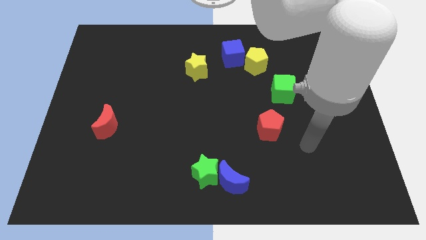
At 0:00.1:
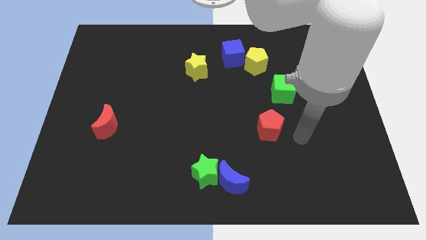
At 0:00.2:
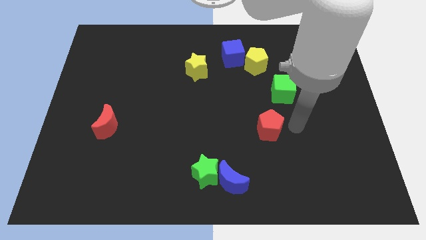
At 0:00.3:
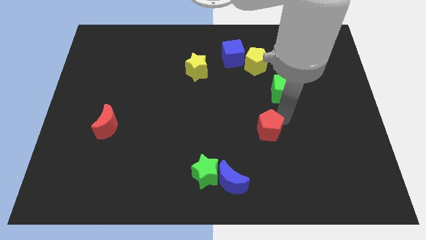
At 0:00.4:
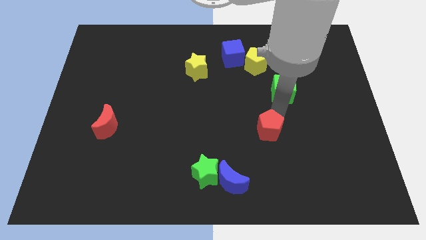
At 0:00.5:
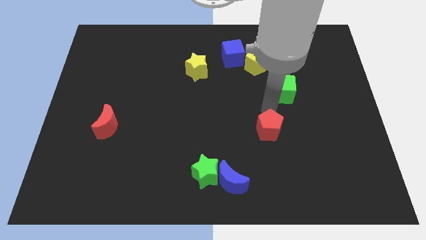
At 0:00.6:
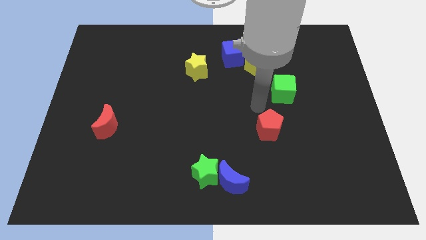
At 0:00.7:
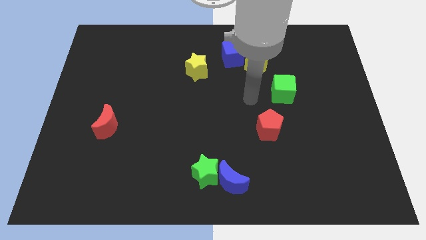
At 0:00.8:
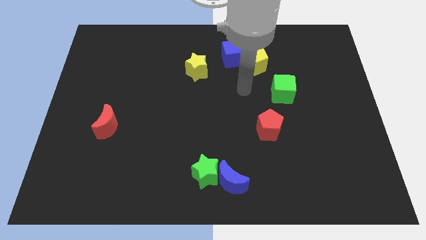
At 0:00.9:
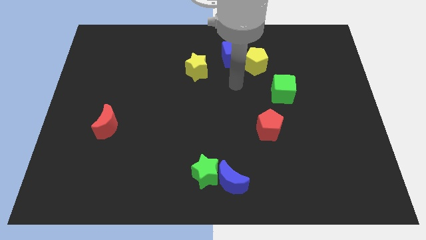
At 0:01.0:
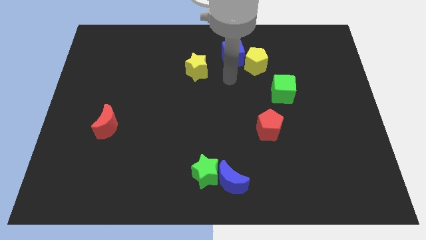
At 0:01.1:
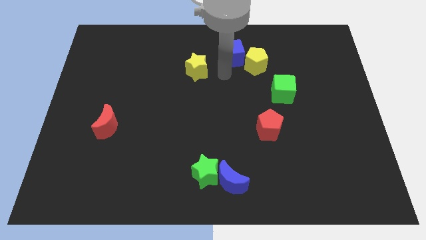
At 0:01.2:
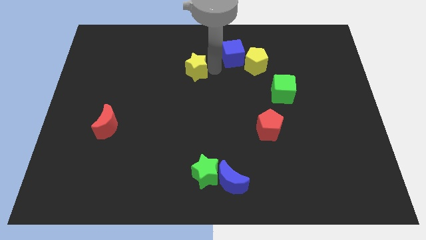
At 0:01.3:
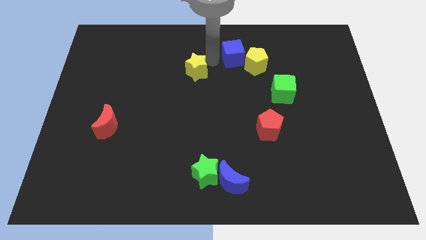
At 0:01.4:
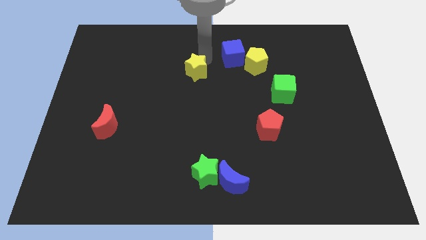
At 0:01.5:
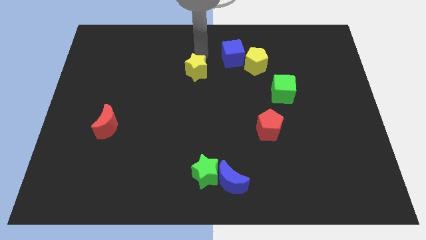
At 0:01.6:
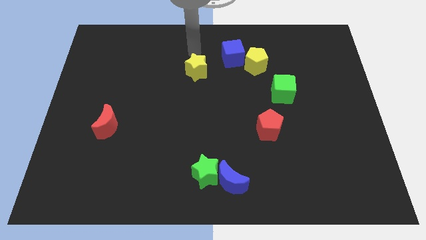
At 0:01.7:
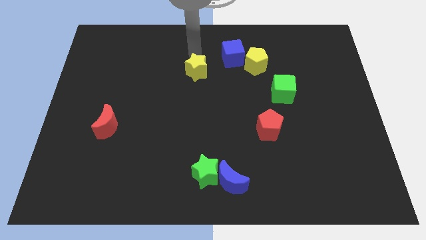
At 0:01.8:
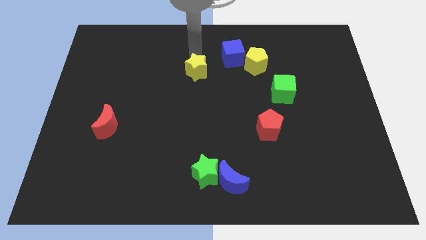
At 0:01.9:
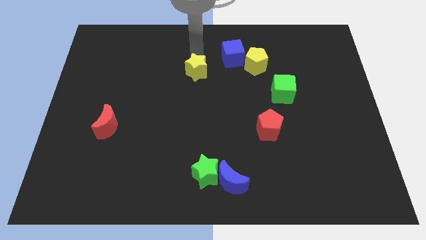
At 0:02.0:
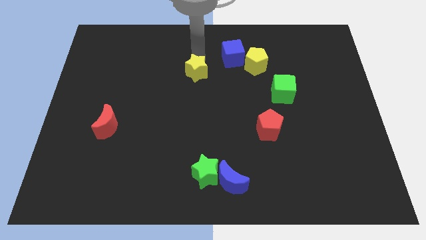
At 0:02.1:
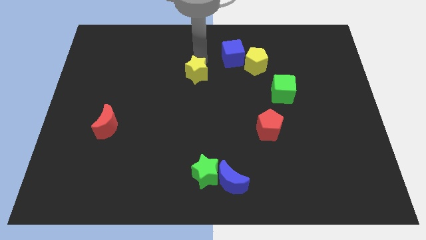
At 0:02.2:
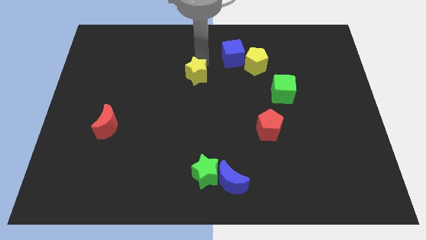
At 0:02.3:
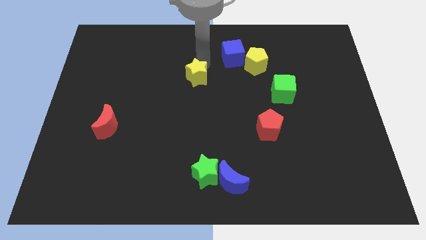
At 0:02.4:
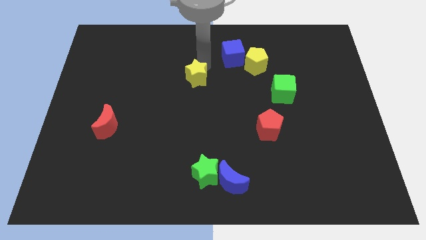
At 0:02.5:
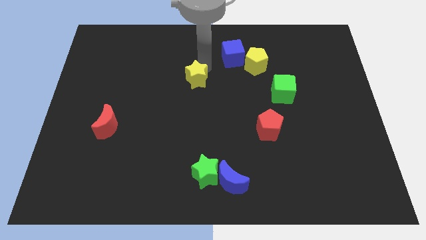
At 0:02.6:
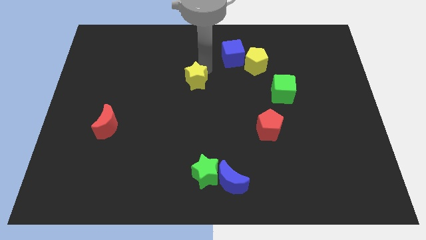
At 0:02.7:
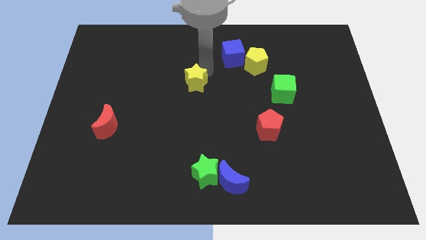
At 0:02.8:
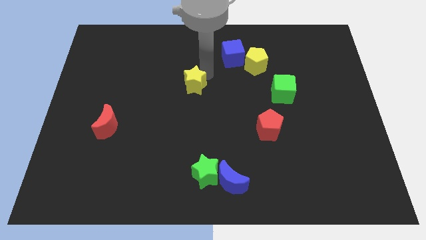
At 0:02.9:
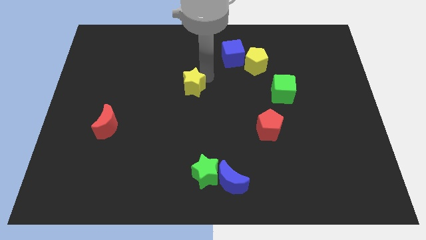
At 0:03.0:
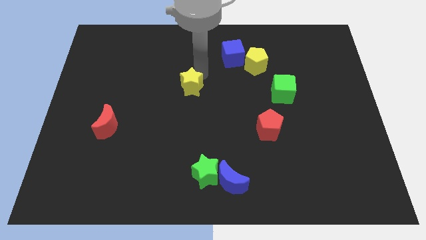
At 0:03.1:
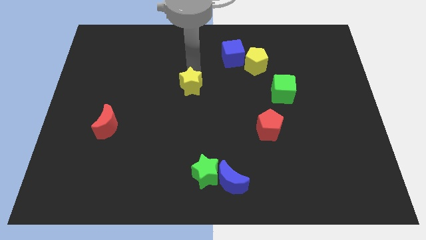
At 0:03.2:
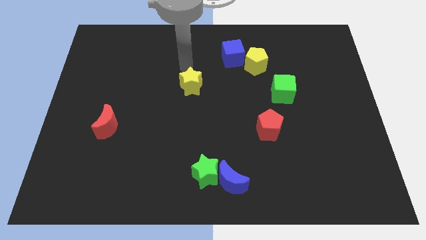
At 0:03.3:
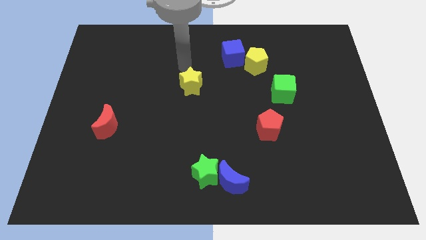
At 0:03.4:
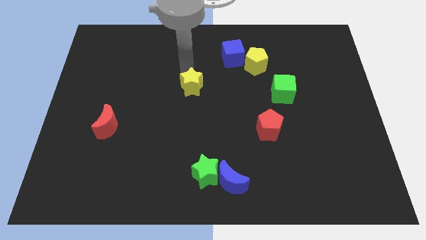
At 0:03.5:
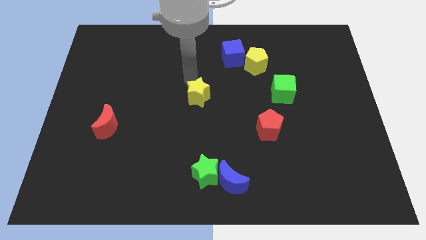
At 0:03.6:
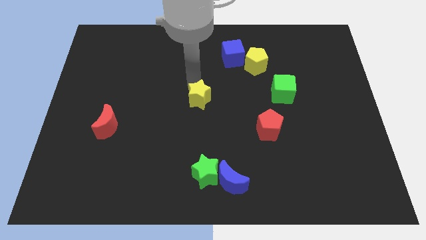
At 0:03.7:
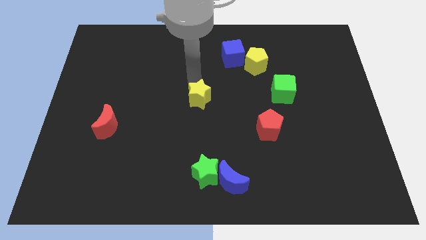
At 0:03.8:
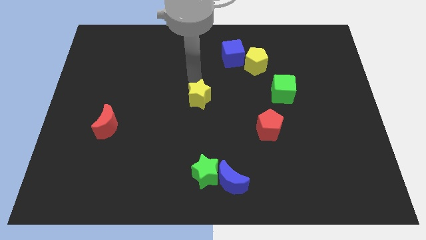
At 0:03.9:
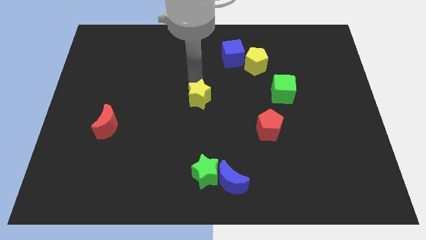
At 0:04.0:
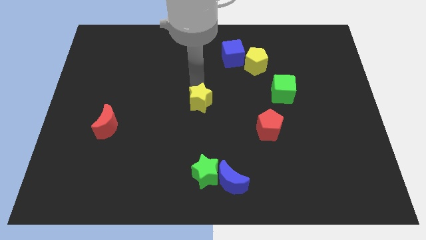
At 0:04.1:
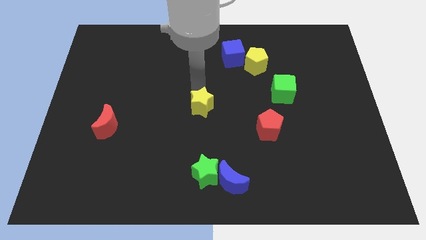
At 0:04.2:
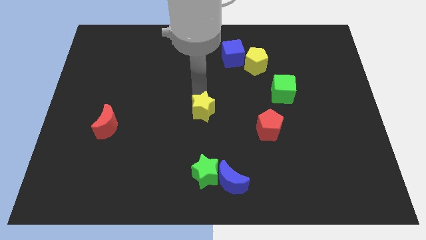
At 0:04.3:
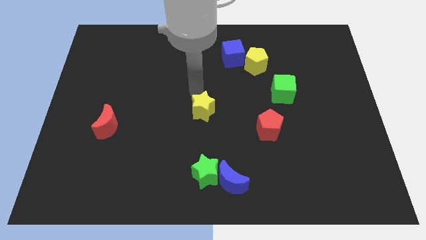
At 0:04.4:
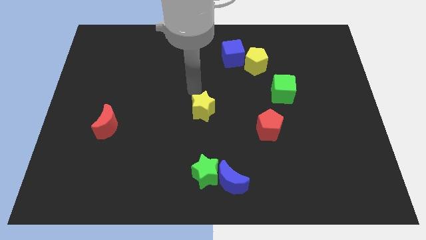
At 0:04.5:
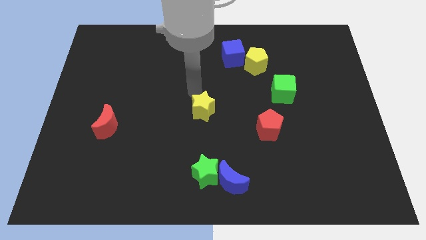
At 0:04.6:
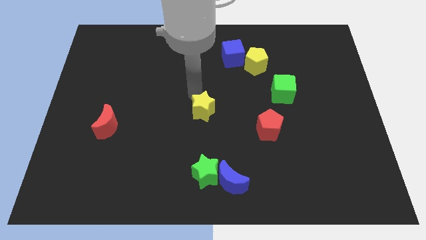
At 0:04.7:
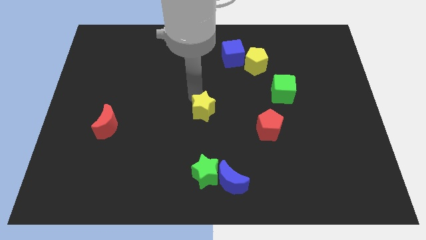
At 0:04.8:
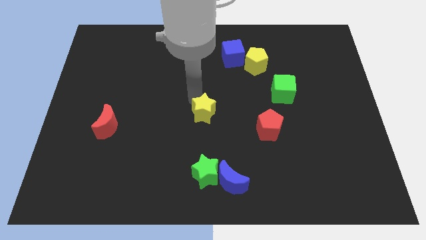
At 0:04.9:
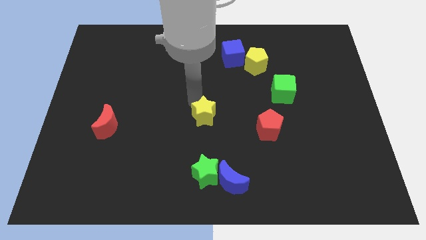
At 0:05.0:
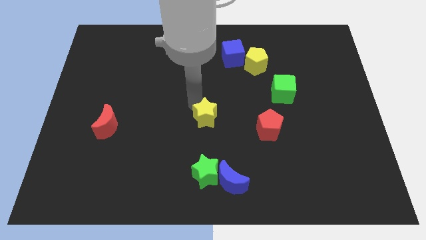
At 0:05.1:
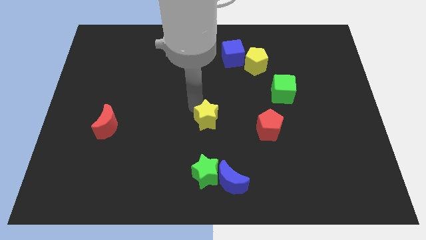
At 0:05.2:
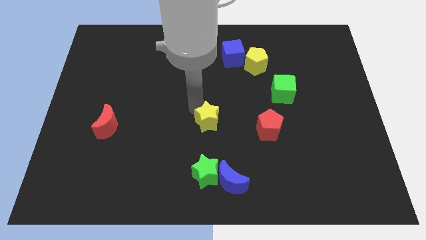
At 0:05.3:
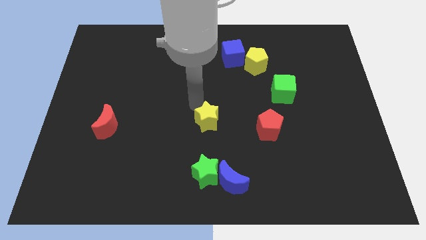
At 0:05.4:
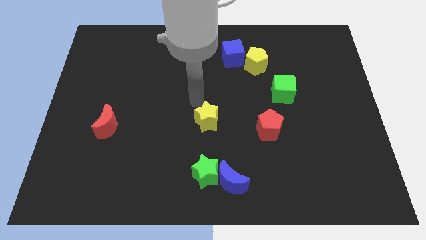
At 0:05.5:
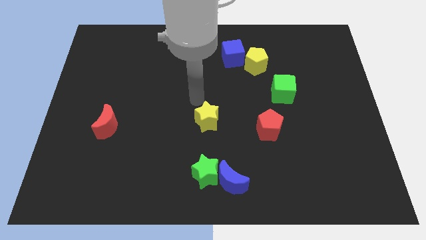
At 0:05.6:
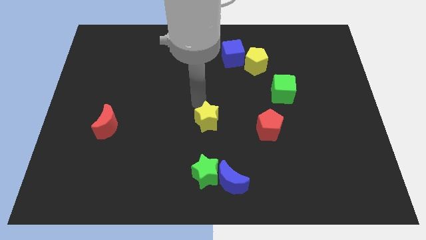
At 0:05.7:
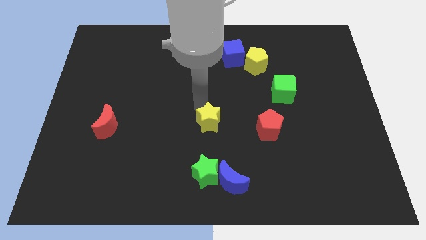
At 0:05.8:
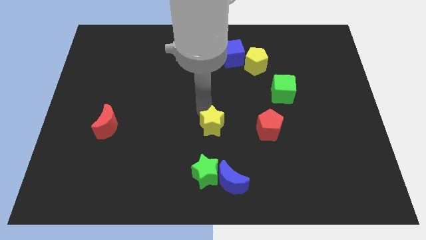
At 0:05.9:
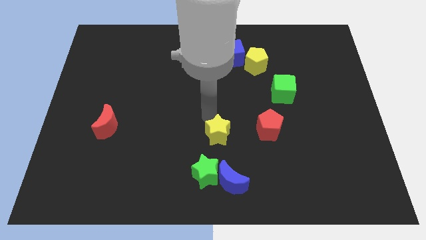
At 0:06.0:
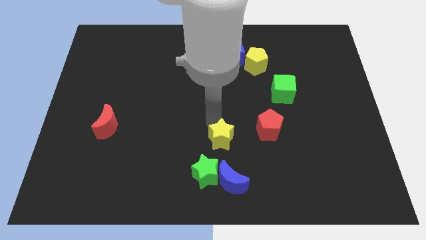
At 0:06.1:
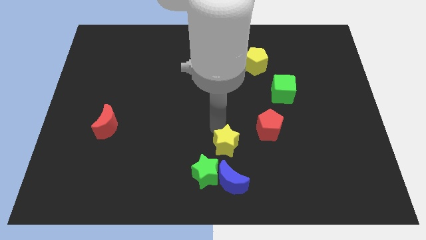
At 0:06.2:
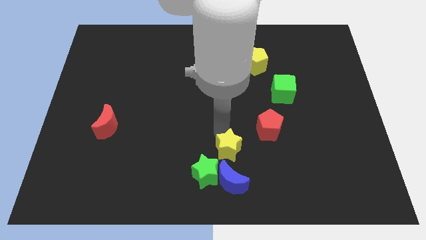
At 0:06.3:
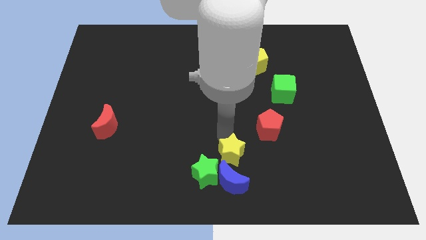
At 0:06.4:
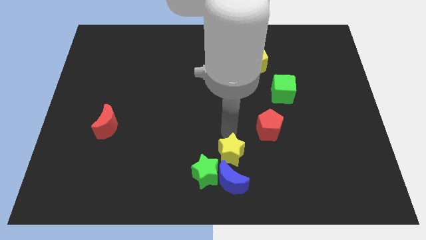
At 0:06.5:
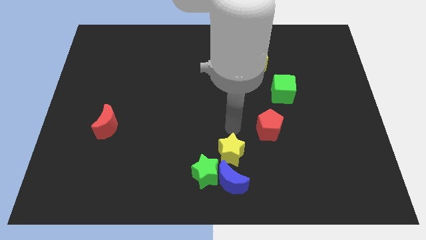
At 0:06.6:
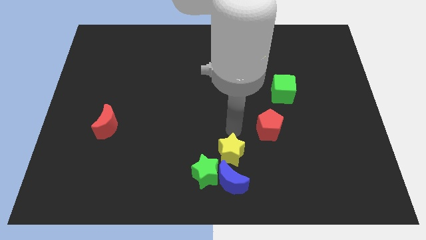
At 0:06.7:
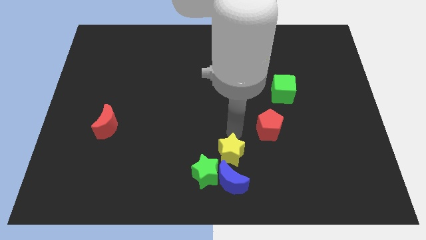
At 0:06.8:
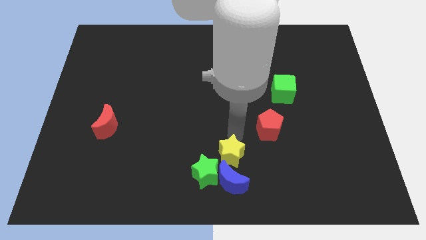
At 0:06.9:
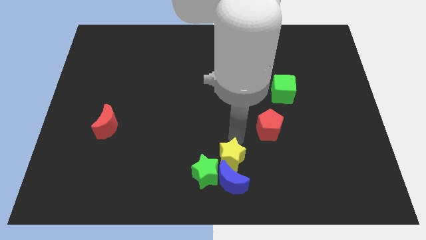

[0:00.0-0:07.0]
move the yellow star next to the blue moon
